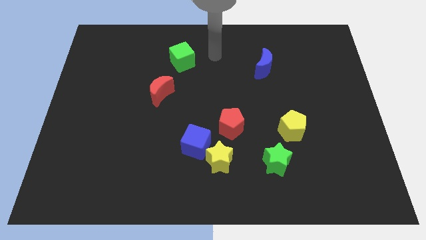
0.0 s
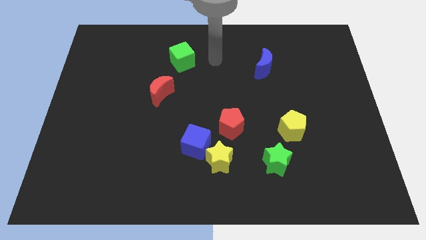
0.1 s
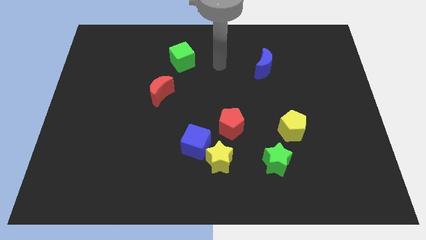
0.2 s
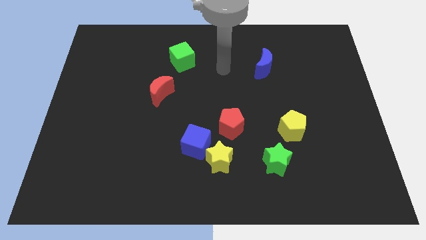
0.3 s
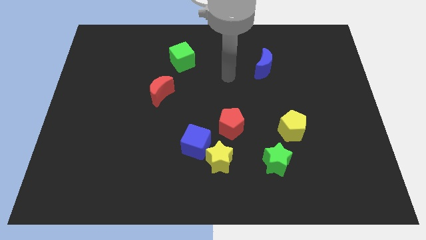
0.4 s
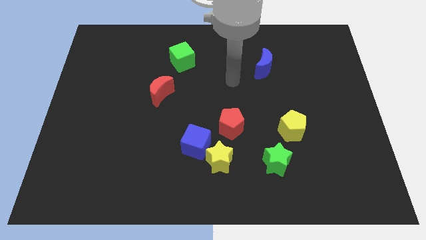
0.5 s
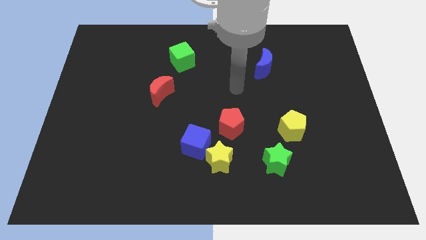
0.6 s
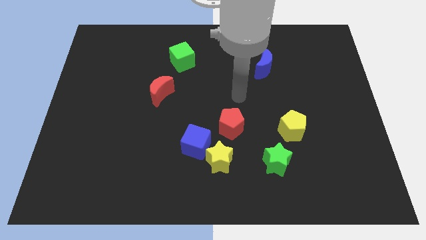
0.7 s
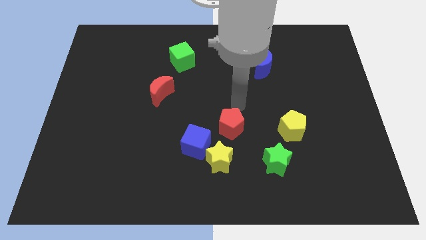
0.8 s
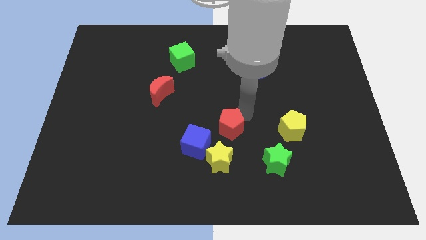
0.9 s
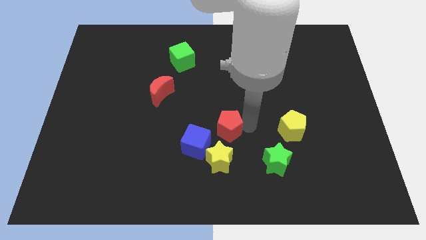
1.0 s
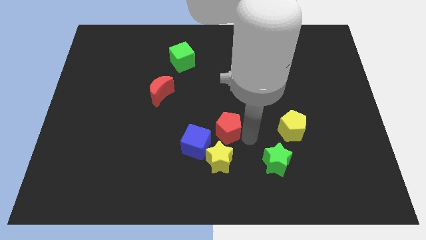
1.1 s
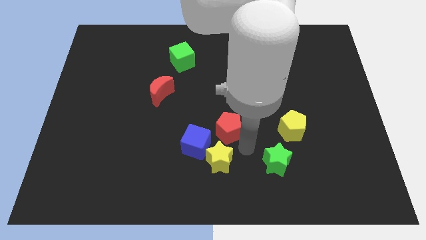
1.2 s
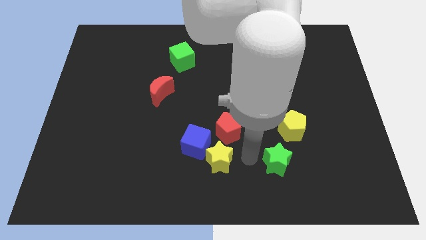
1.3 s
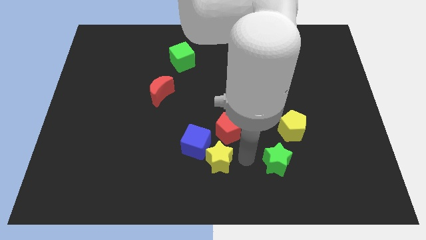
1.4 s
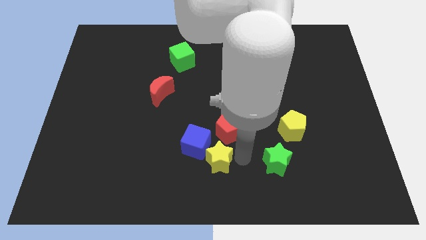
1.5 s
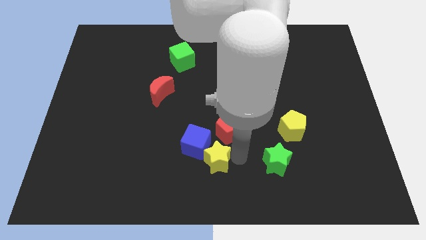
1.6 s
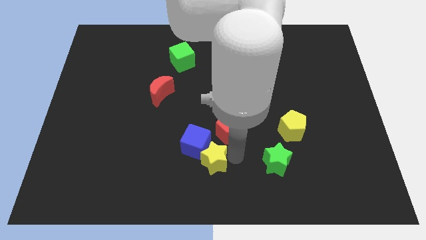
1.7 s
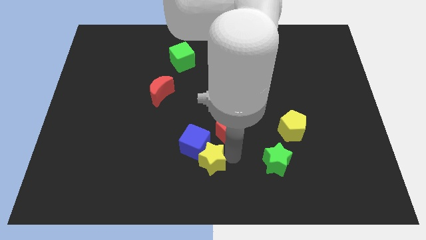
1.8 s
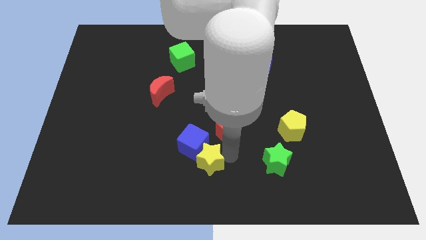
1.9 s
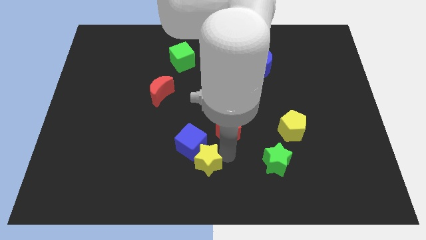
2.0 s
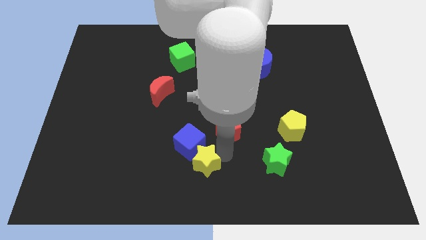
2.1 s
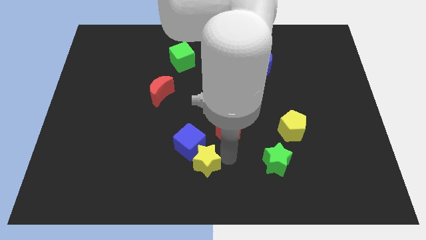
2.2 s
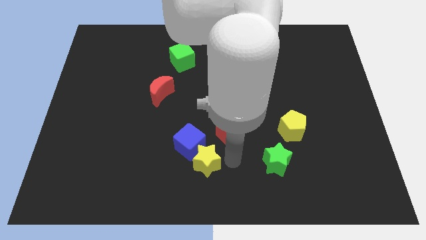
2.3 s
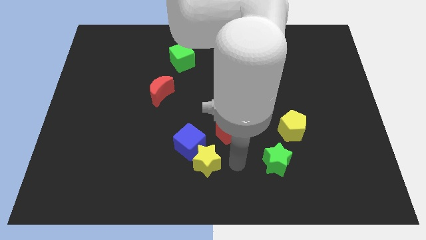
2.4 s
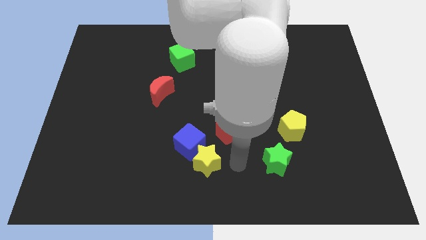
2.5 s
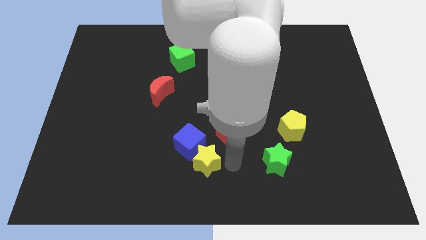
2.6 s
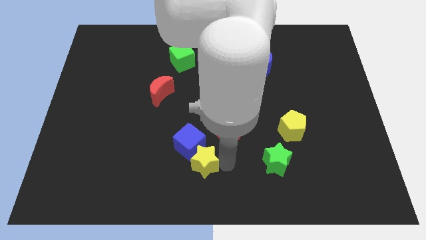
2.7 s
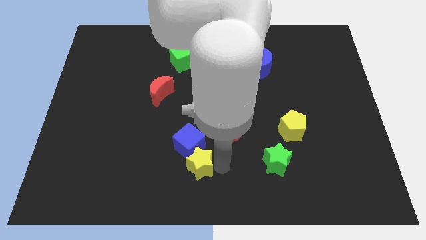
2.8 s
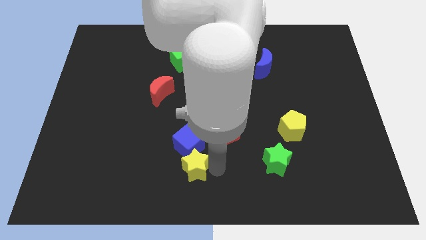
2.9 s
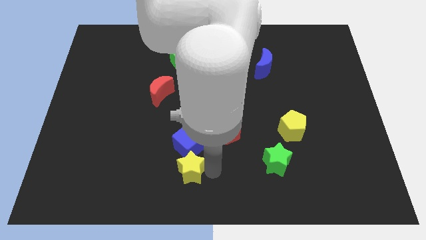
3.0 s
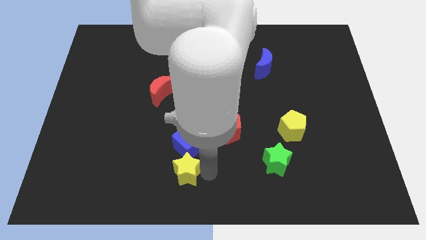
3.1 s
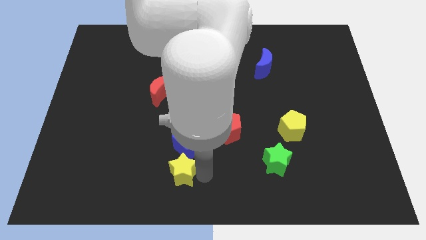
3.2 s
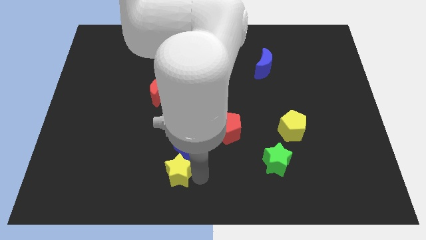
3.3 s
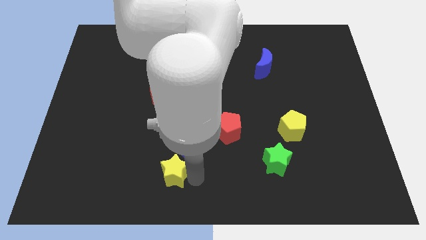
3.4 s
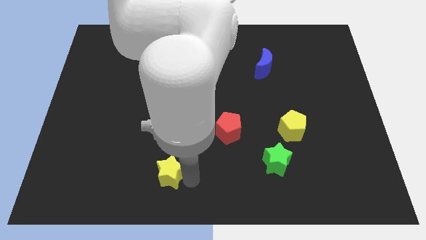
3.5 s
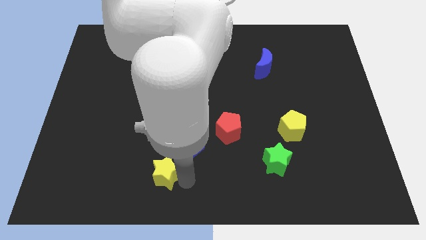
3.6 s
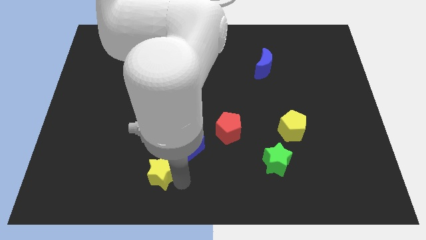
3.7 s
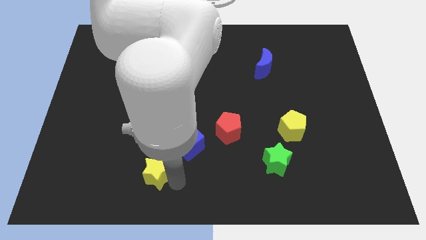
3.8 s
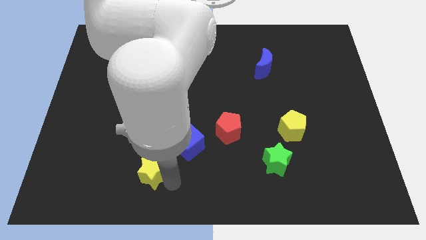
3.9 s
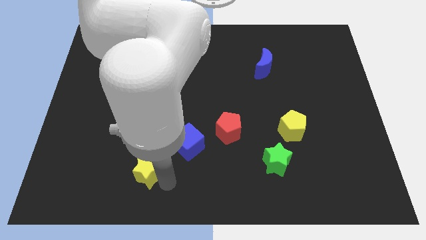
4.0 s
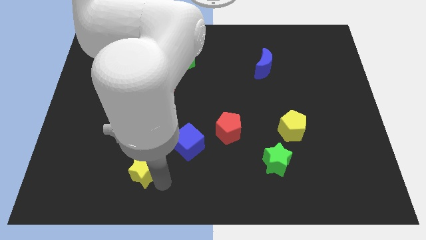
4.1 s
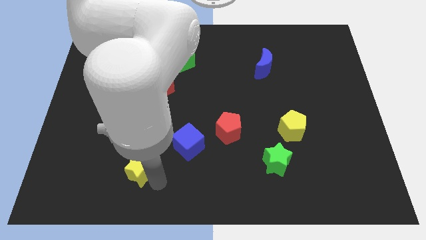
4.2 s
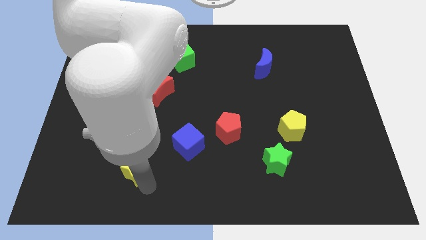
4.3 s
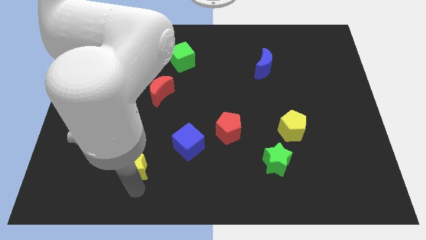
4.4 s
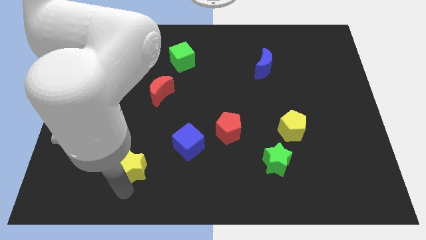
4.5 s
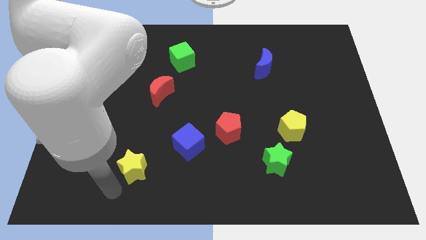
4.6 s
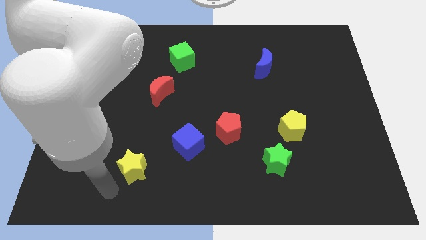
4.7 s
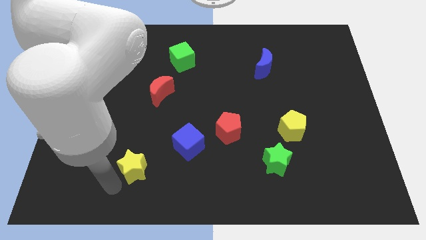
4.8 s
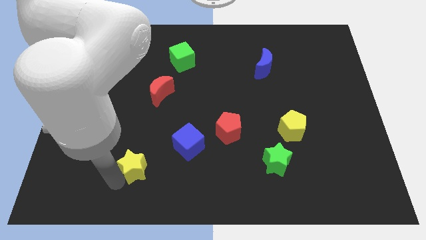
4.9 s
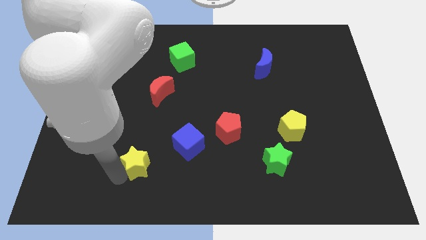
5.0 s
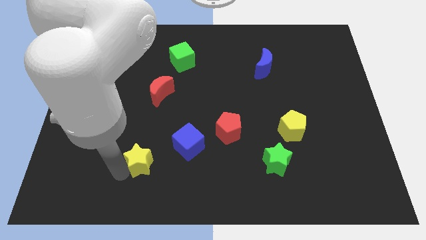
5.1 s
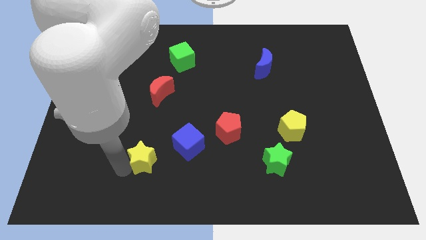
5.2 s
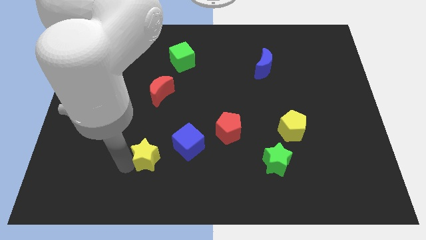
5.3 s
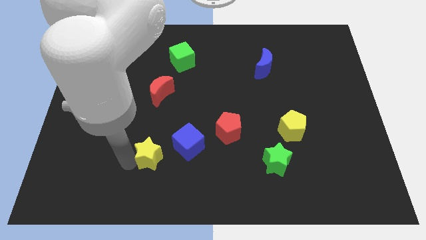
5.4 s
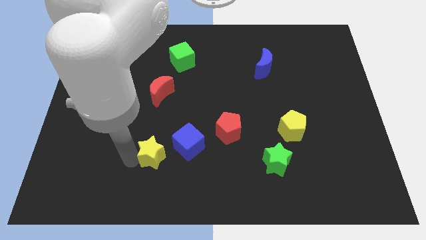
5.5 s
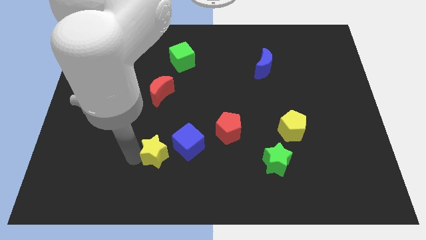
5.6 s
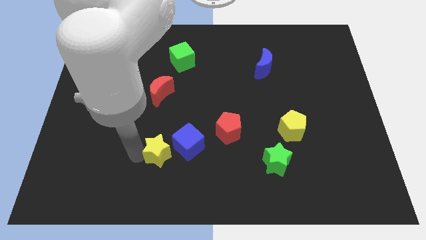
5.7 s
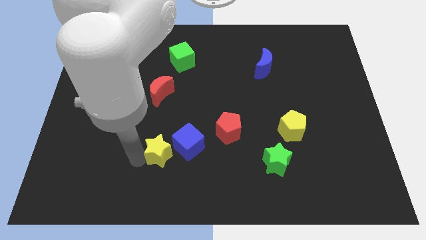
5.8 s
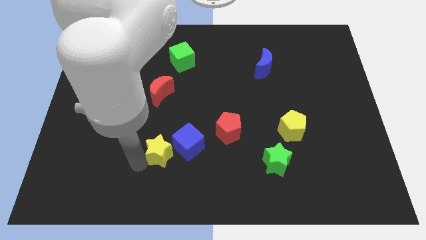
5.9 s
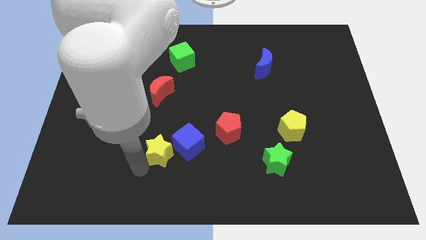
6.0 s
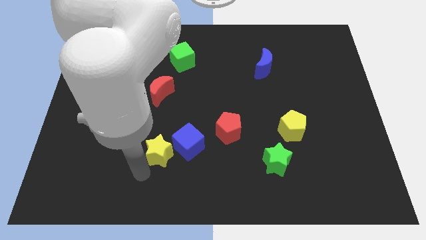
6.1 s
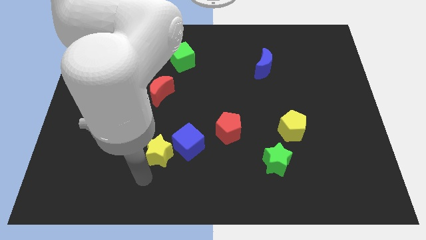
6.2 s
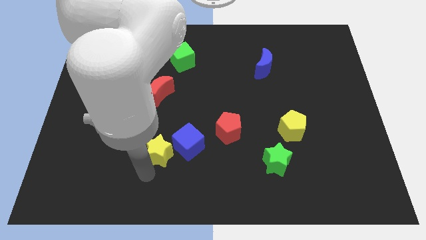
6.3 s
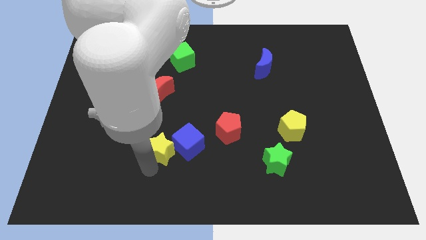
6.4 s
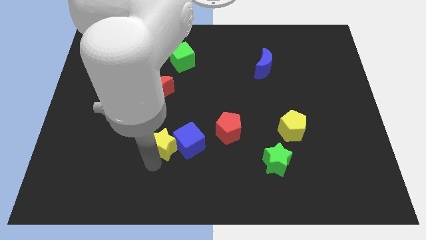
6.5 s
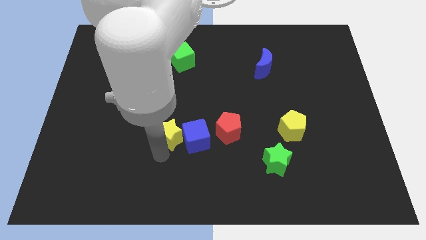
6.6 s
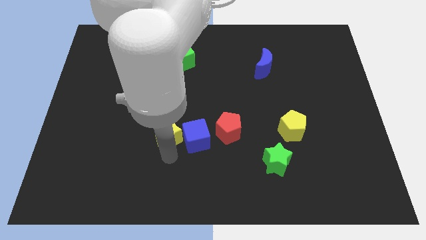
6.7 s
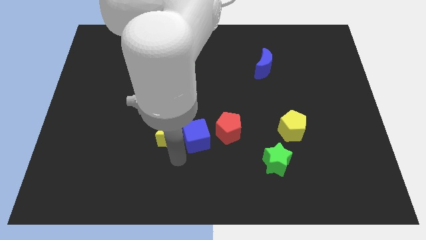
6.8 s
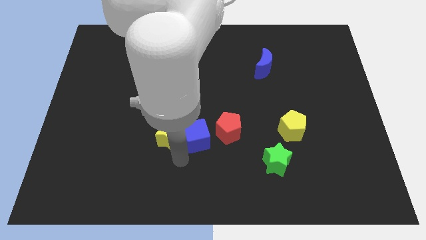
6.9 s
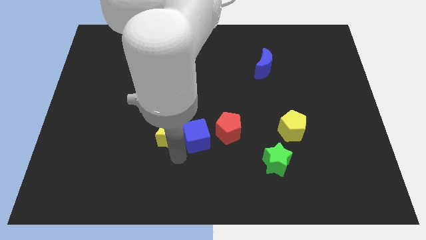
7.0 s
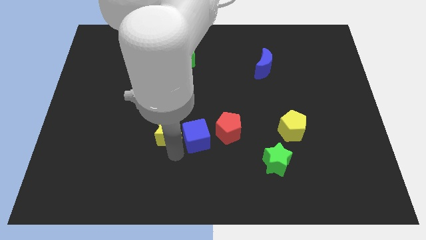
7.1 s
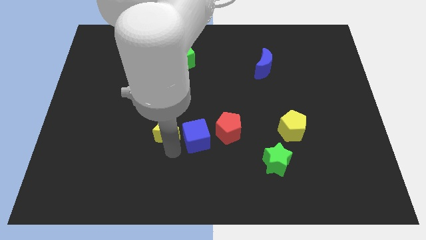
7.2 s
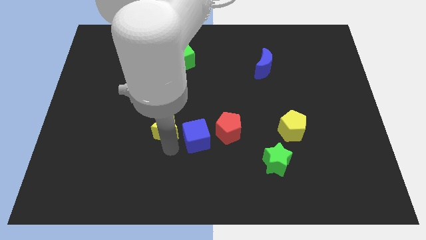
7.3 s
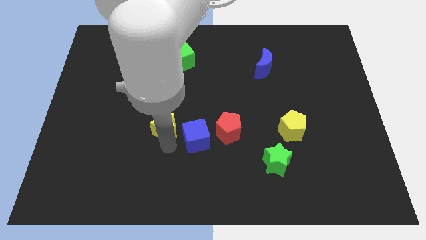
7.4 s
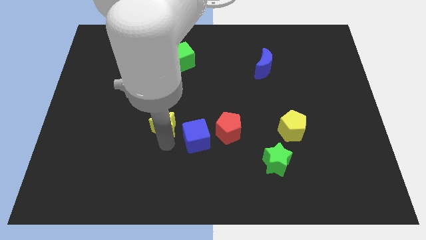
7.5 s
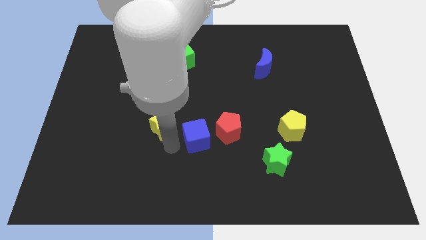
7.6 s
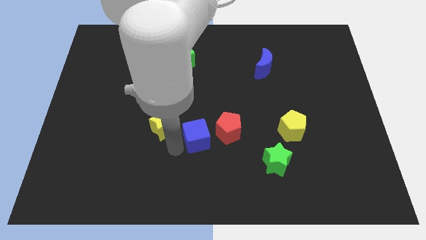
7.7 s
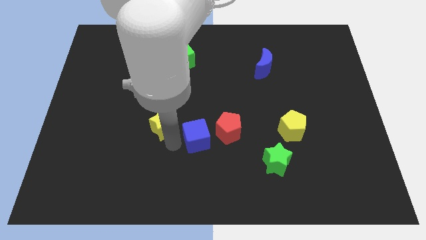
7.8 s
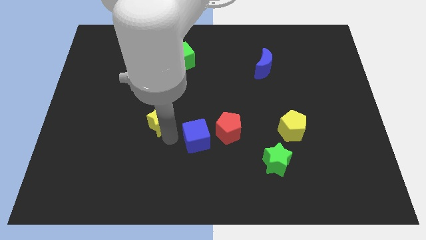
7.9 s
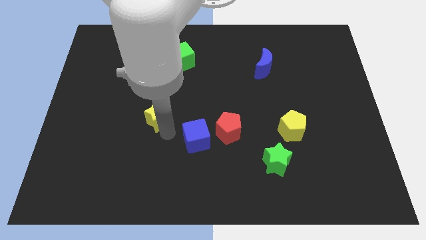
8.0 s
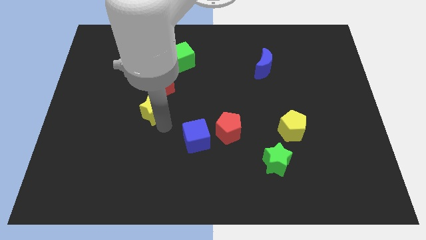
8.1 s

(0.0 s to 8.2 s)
move the yellow star upwards and then to the left
